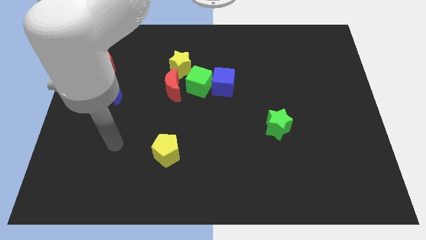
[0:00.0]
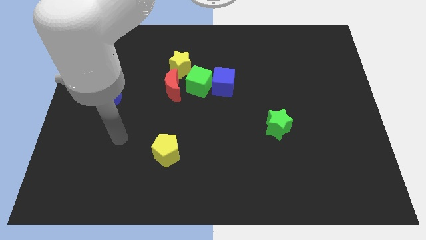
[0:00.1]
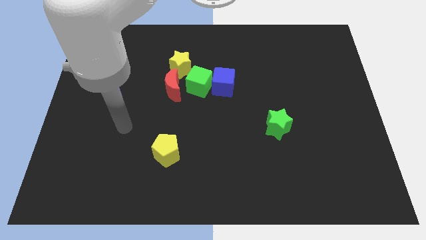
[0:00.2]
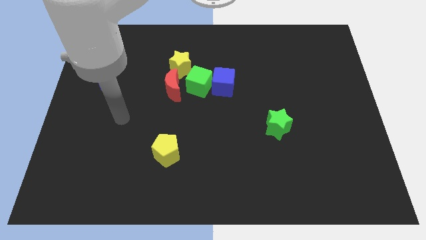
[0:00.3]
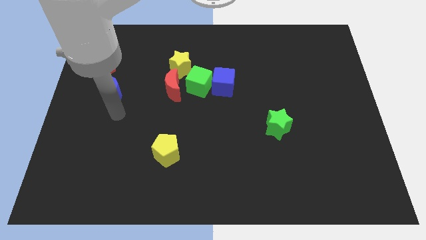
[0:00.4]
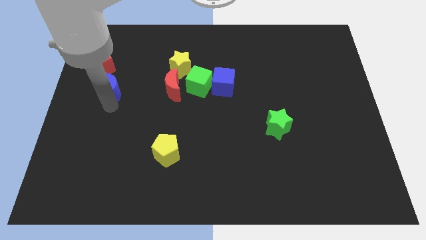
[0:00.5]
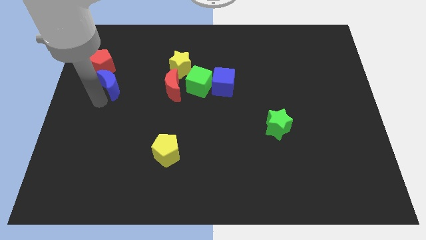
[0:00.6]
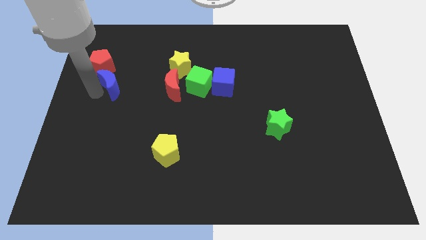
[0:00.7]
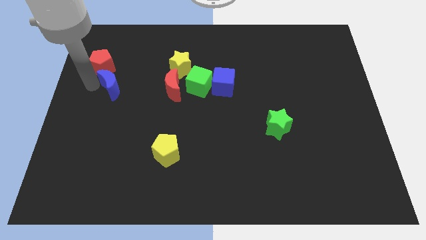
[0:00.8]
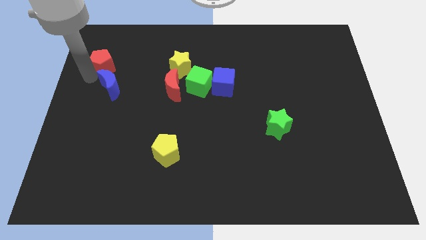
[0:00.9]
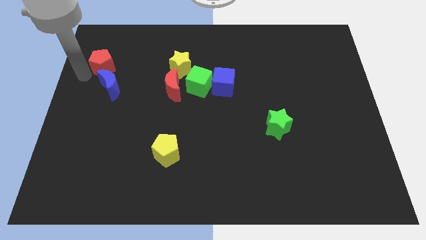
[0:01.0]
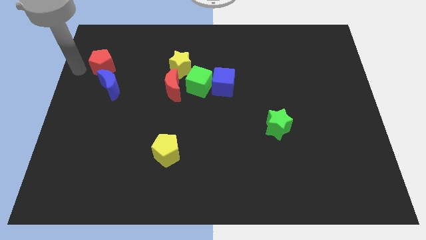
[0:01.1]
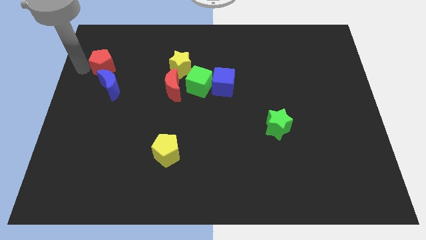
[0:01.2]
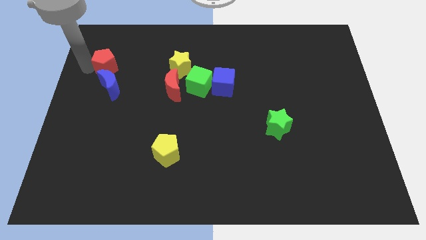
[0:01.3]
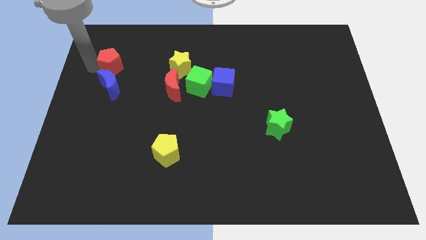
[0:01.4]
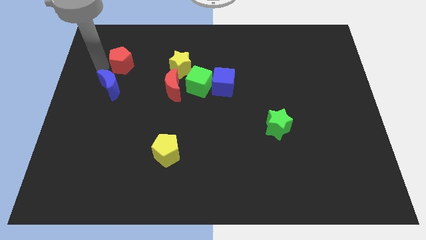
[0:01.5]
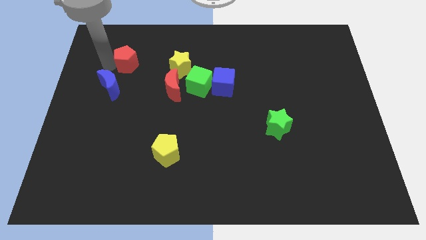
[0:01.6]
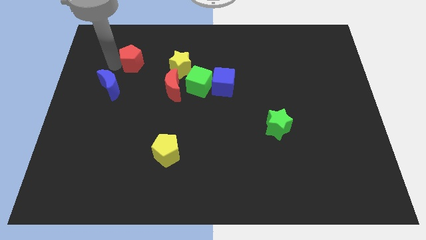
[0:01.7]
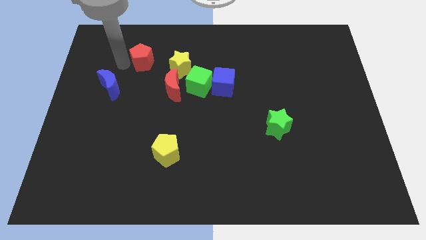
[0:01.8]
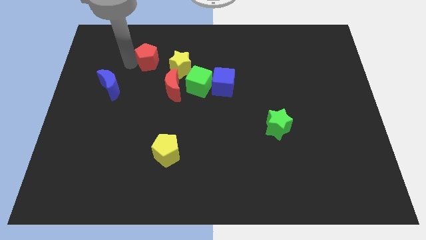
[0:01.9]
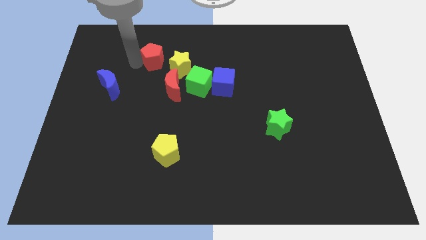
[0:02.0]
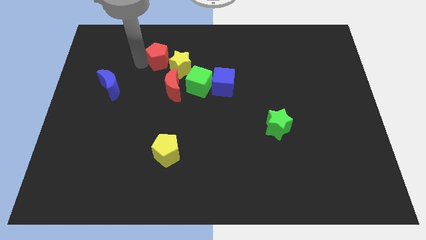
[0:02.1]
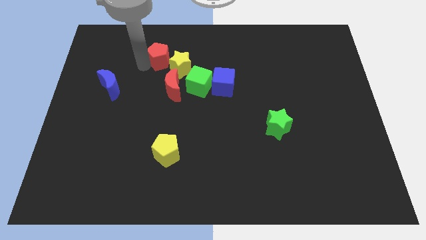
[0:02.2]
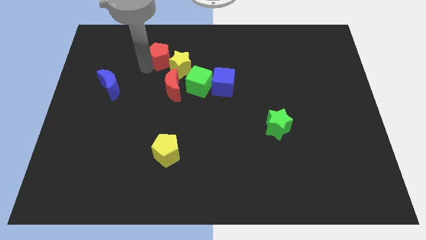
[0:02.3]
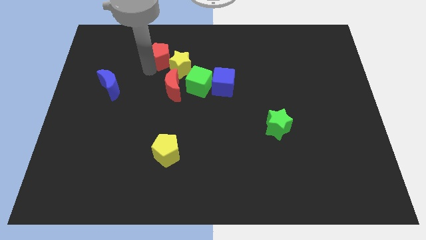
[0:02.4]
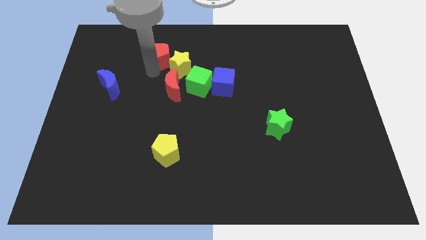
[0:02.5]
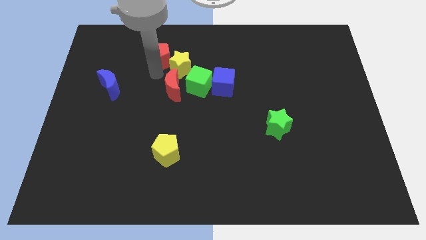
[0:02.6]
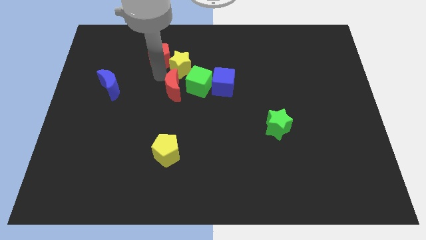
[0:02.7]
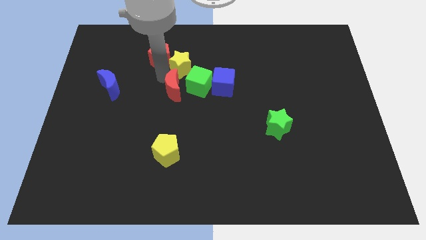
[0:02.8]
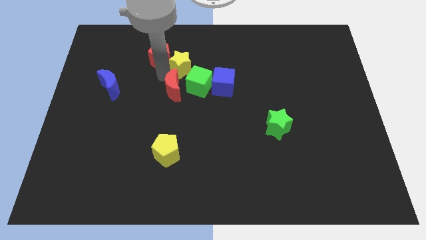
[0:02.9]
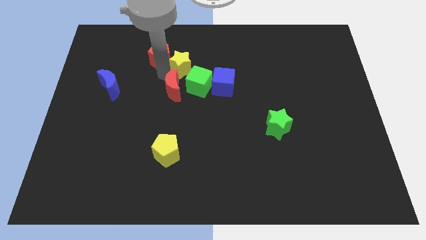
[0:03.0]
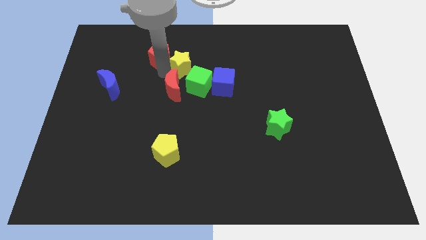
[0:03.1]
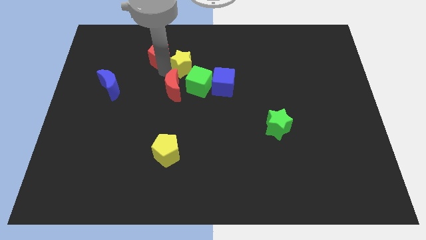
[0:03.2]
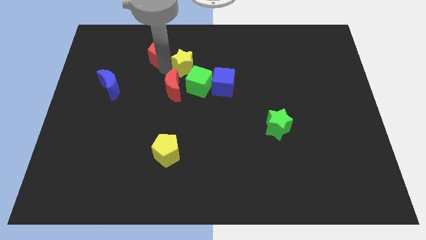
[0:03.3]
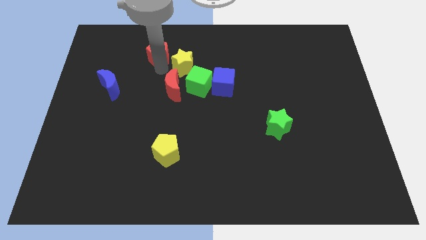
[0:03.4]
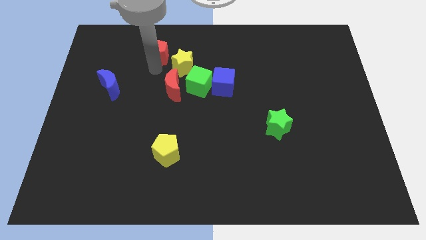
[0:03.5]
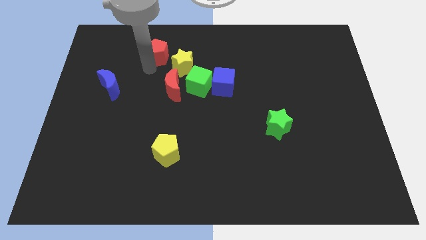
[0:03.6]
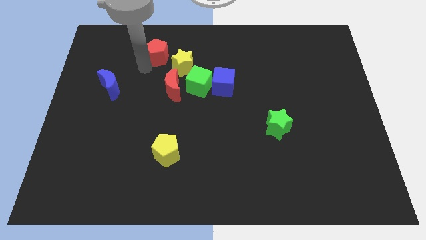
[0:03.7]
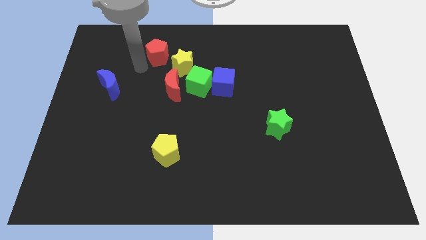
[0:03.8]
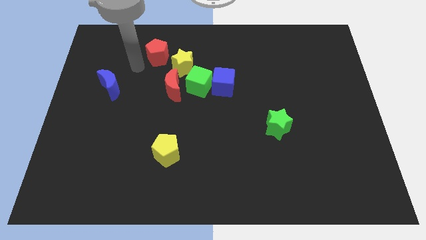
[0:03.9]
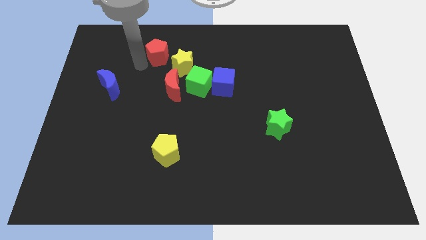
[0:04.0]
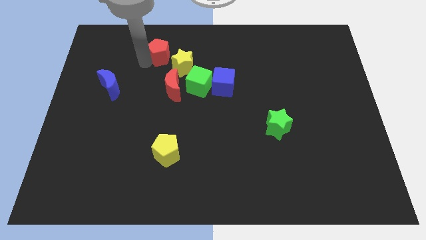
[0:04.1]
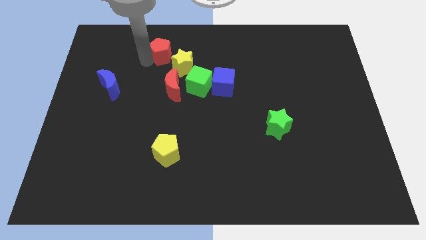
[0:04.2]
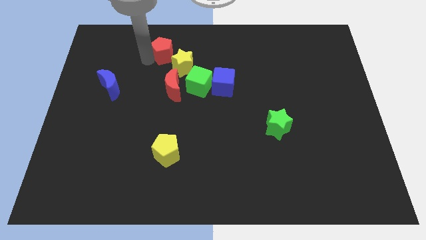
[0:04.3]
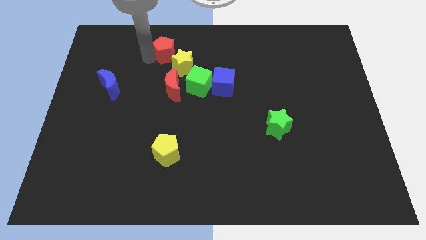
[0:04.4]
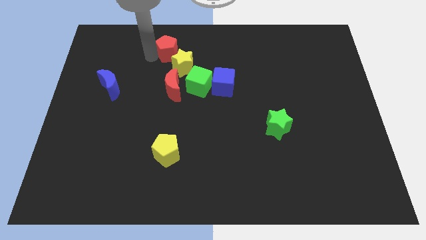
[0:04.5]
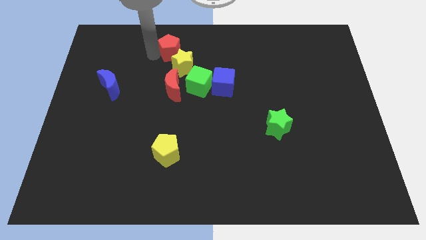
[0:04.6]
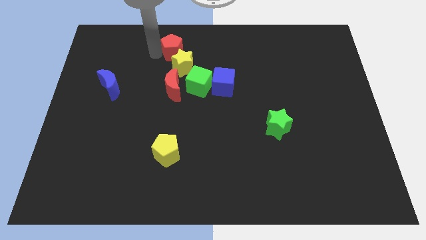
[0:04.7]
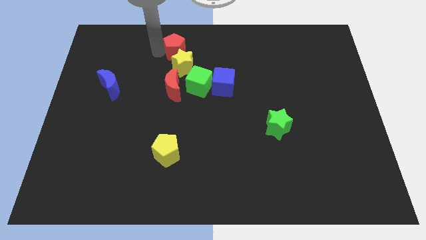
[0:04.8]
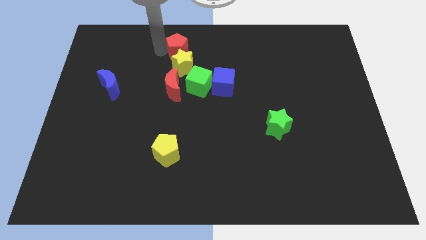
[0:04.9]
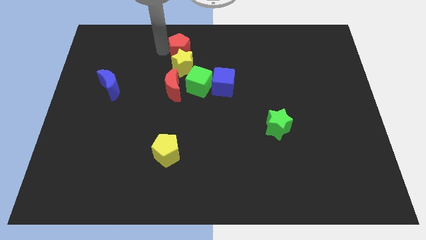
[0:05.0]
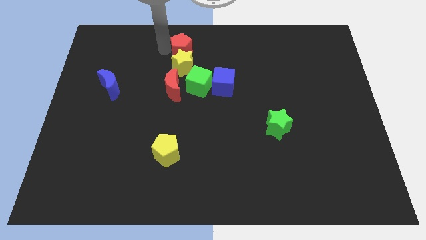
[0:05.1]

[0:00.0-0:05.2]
slide the red pentagon to the top
